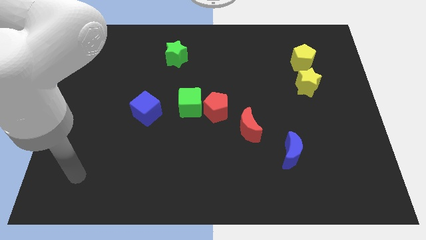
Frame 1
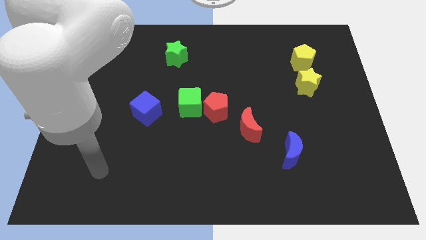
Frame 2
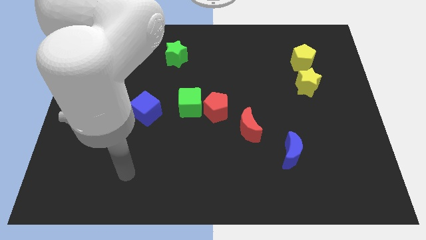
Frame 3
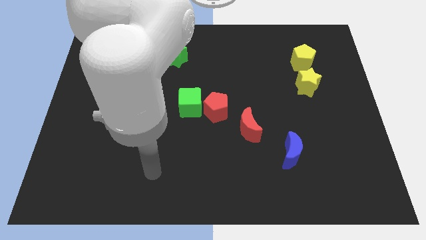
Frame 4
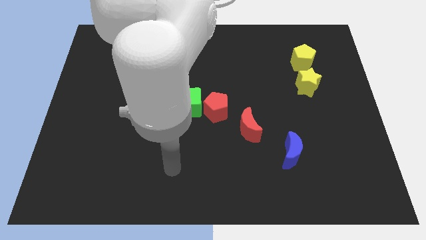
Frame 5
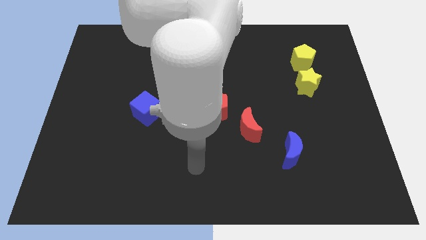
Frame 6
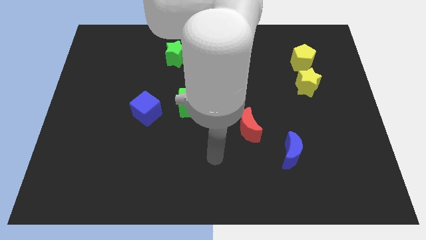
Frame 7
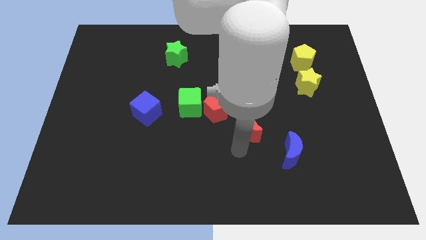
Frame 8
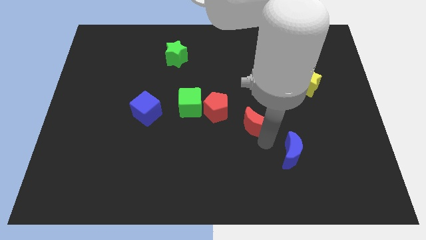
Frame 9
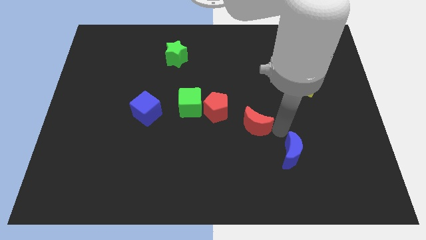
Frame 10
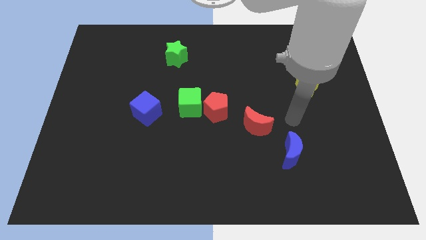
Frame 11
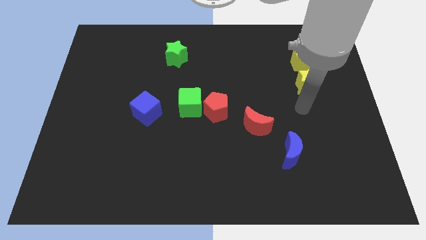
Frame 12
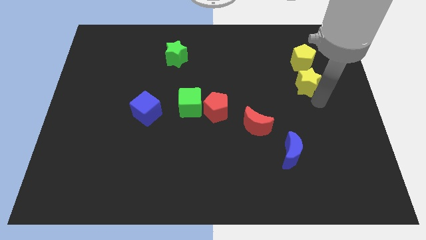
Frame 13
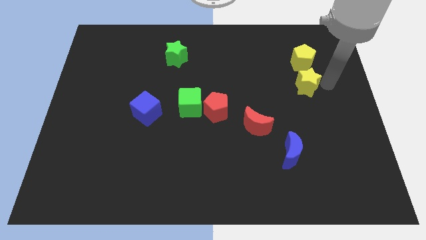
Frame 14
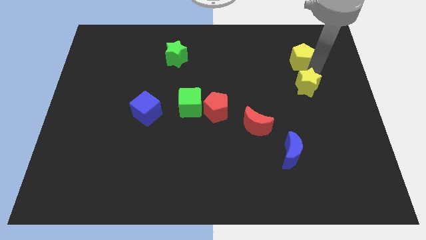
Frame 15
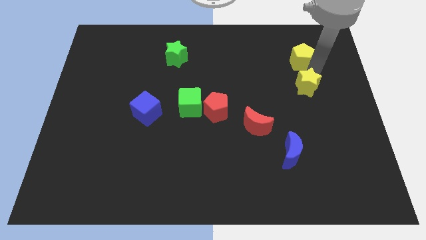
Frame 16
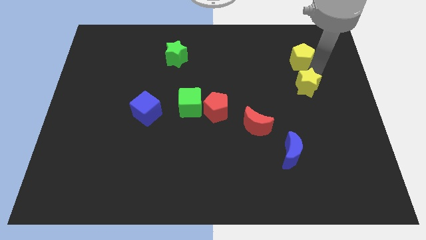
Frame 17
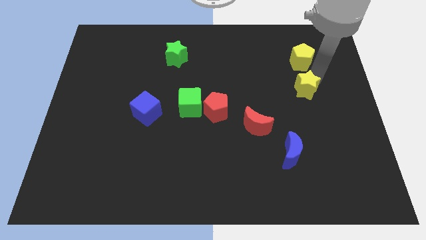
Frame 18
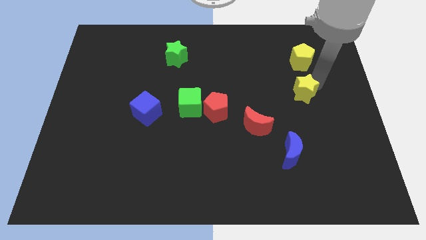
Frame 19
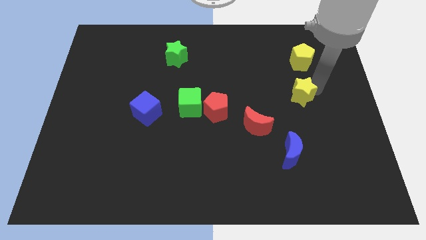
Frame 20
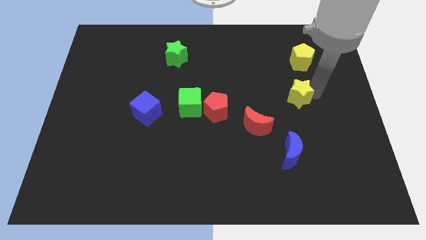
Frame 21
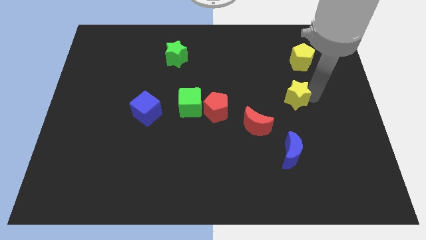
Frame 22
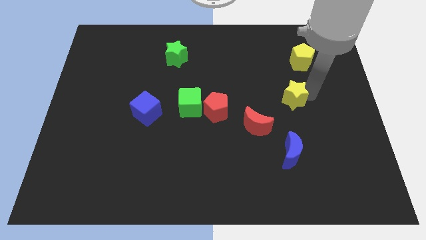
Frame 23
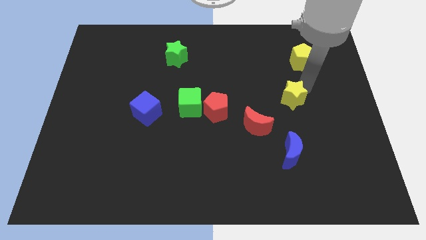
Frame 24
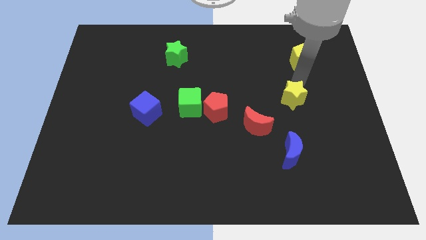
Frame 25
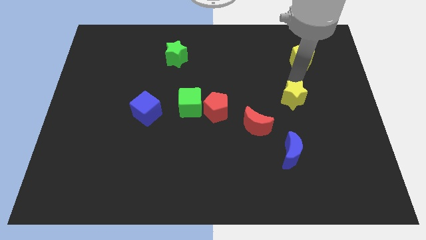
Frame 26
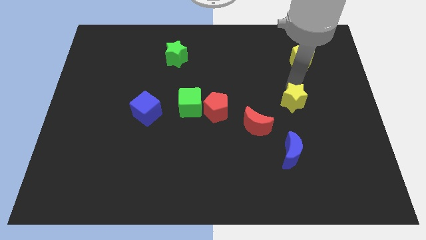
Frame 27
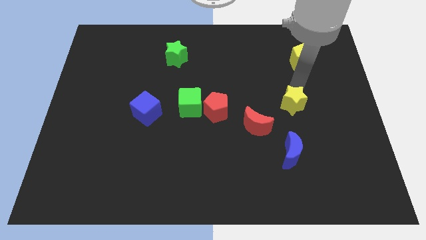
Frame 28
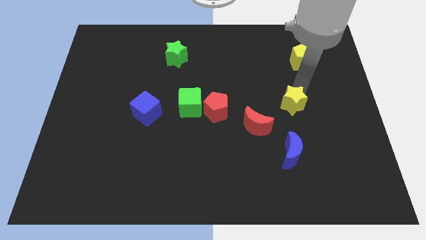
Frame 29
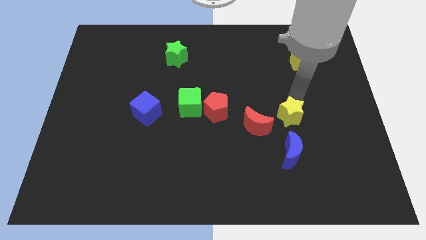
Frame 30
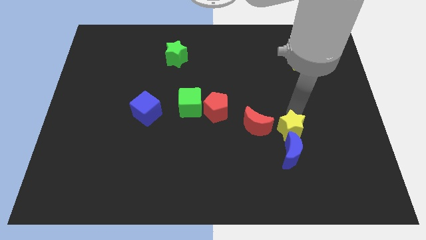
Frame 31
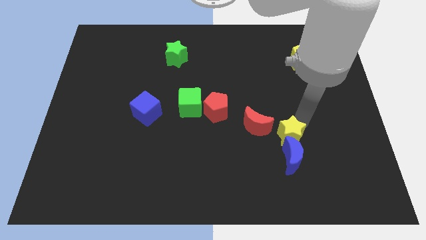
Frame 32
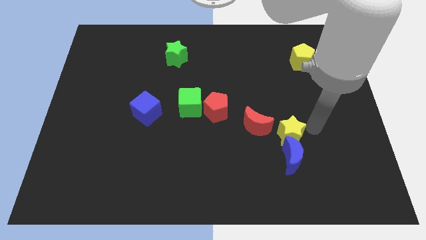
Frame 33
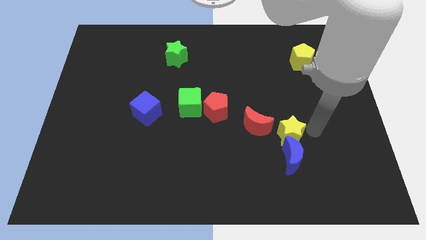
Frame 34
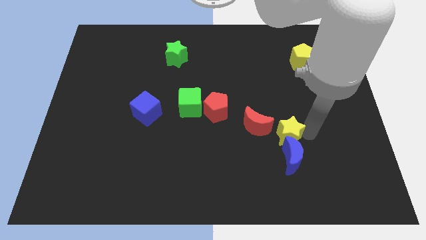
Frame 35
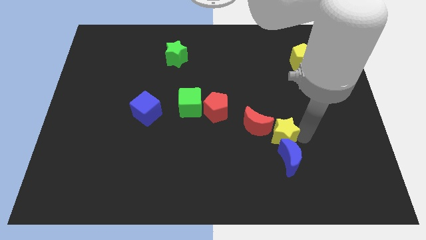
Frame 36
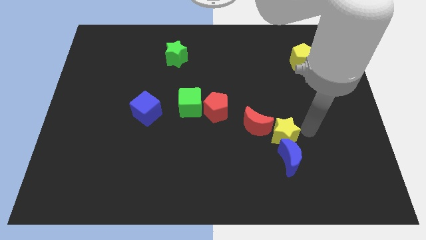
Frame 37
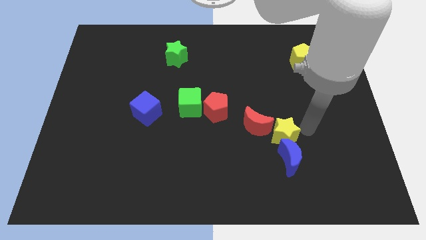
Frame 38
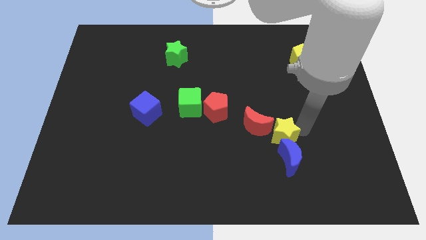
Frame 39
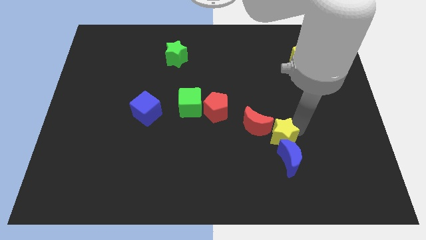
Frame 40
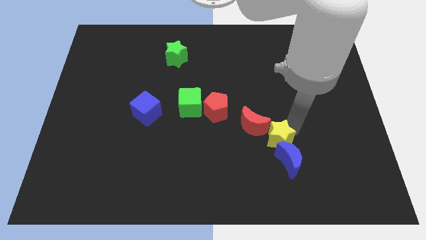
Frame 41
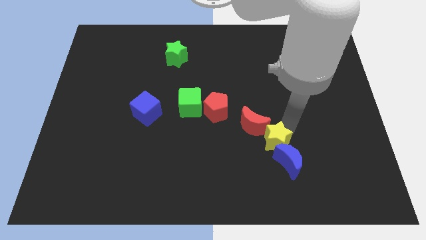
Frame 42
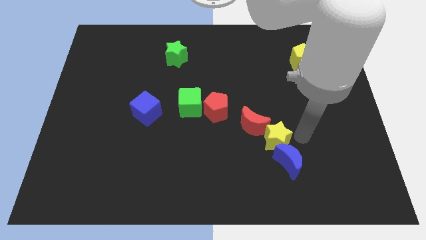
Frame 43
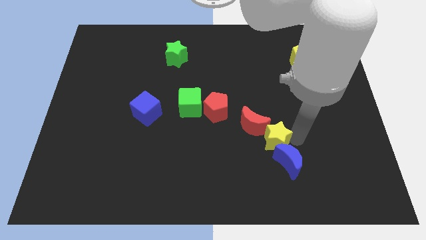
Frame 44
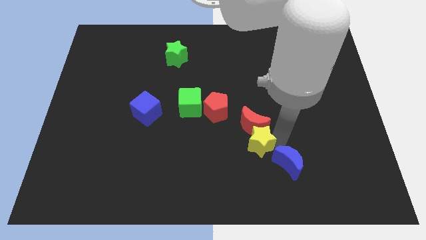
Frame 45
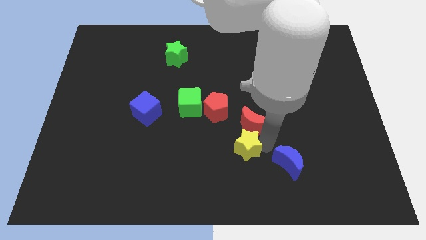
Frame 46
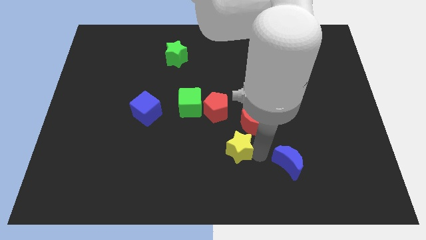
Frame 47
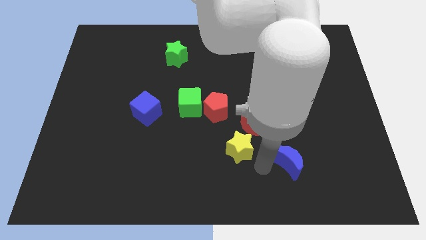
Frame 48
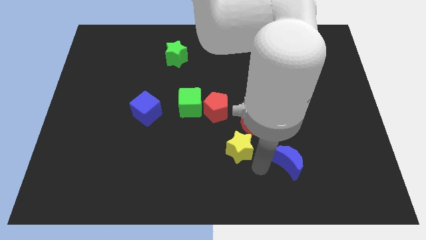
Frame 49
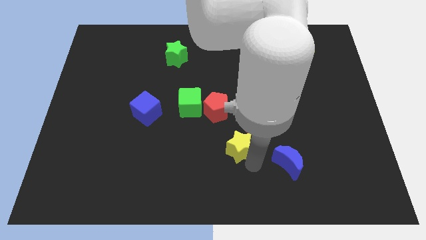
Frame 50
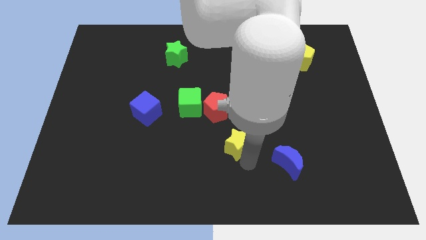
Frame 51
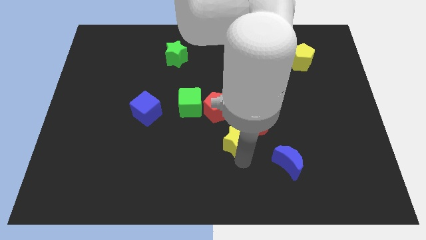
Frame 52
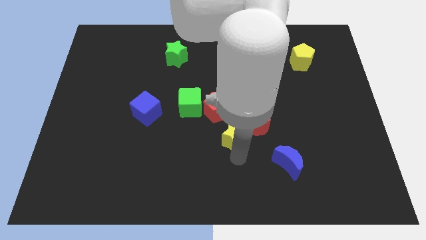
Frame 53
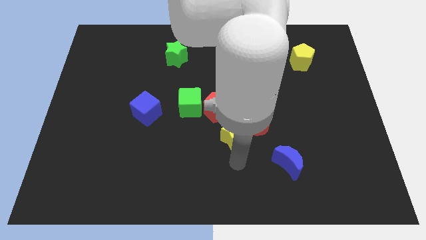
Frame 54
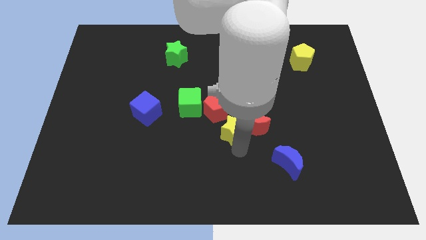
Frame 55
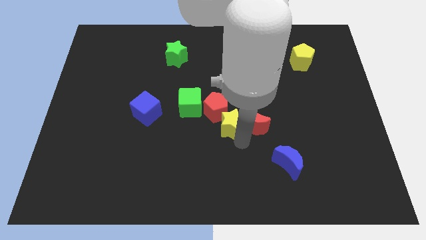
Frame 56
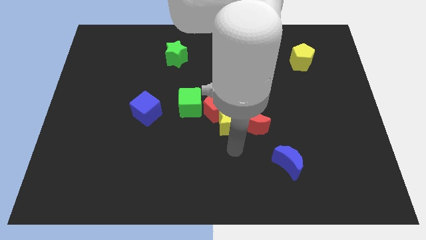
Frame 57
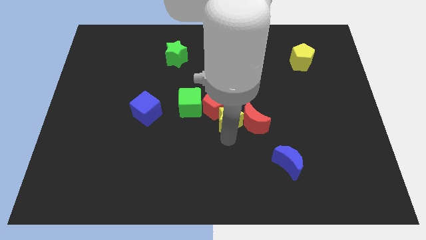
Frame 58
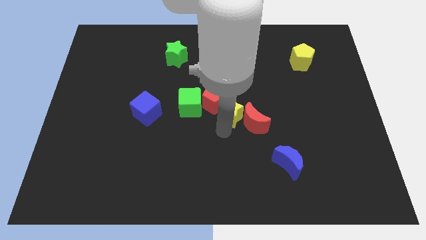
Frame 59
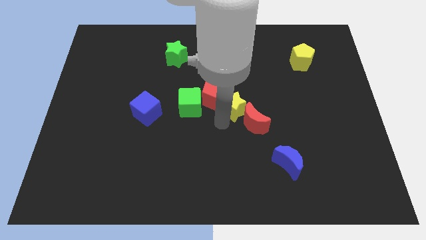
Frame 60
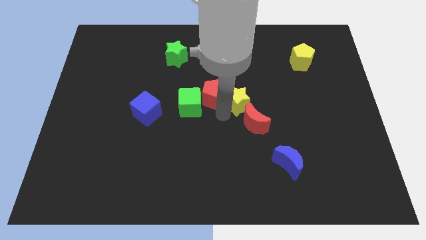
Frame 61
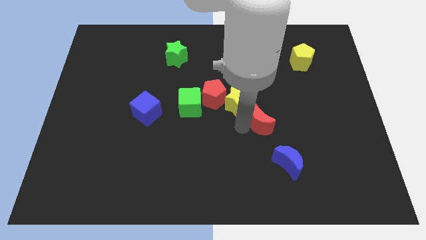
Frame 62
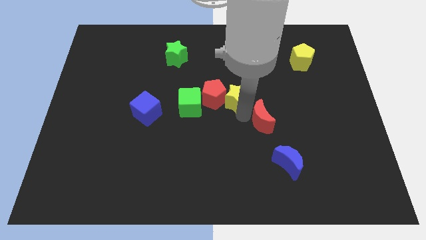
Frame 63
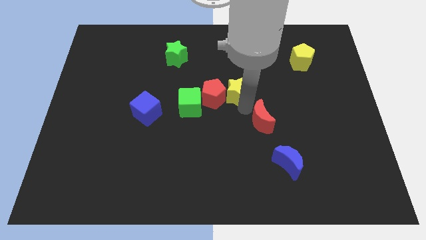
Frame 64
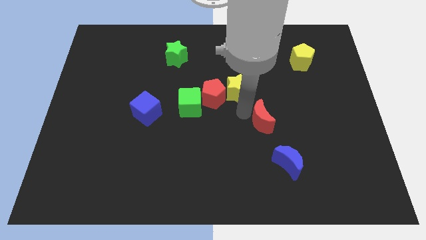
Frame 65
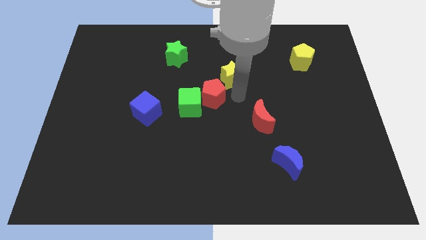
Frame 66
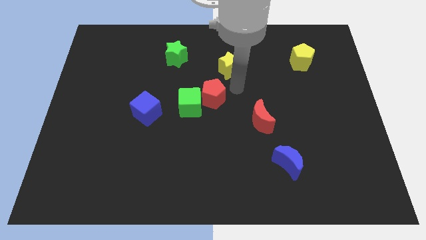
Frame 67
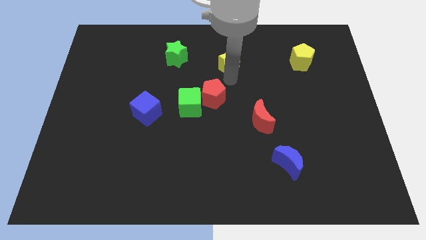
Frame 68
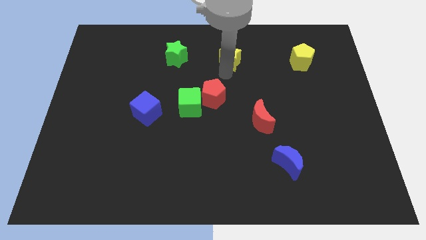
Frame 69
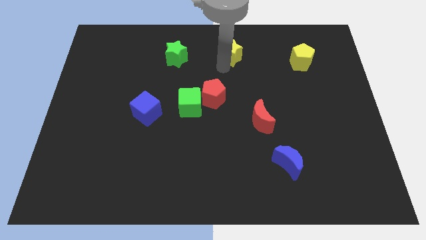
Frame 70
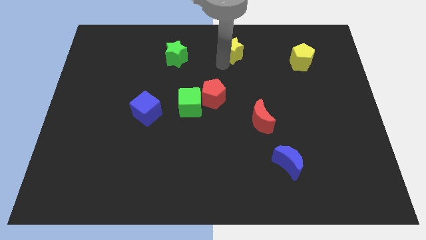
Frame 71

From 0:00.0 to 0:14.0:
push the yellow star to the towards your base

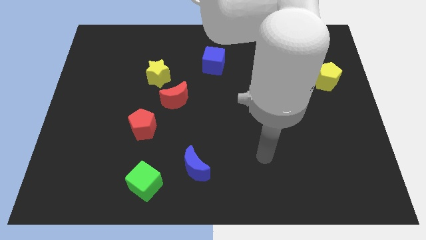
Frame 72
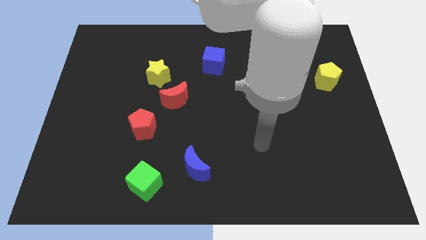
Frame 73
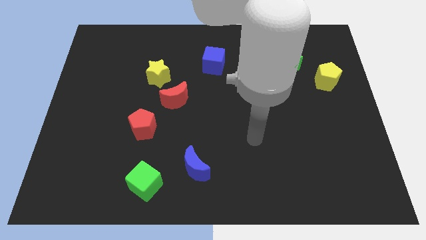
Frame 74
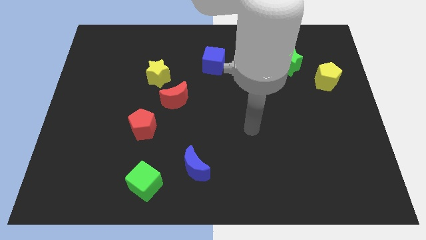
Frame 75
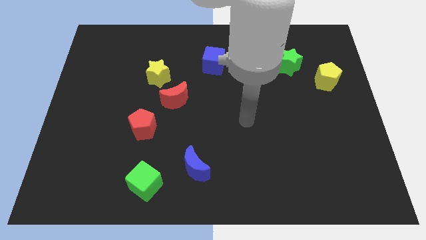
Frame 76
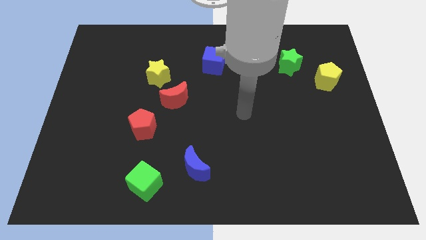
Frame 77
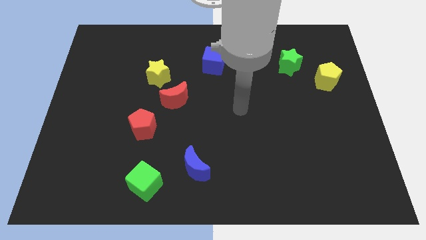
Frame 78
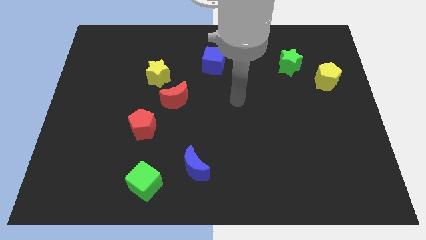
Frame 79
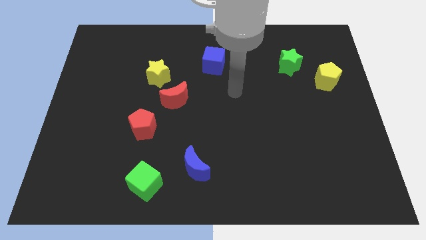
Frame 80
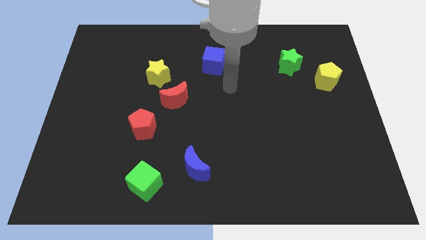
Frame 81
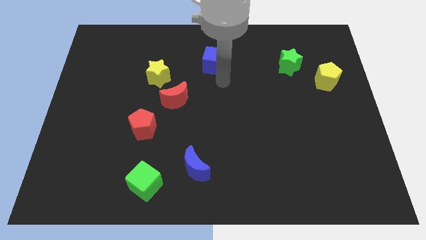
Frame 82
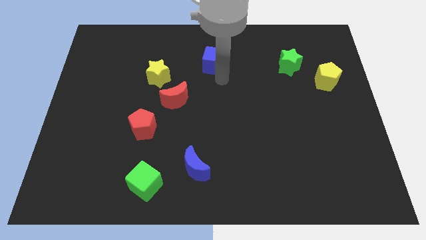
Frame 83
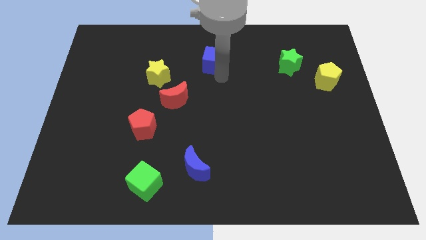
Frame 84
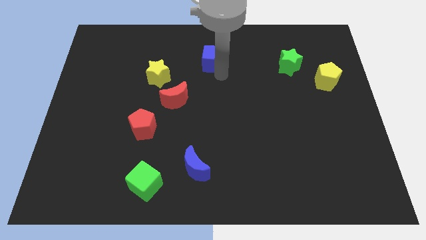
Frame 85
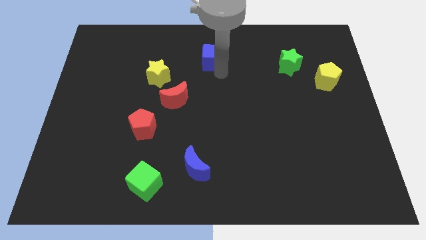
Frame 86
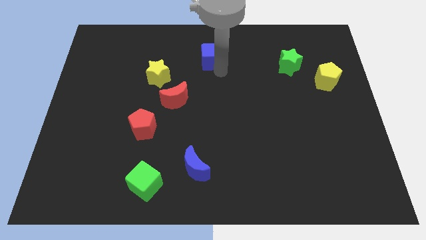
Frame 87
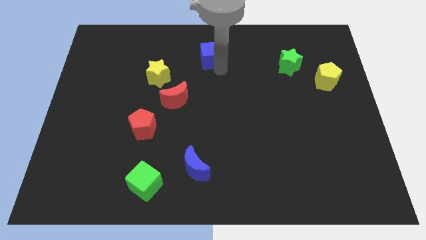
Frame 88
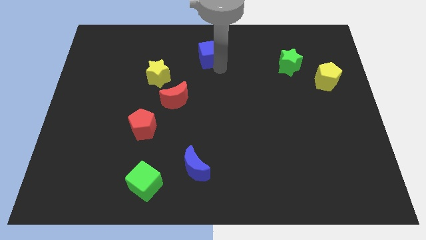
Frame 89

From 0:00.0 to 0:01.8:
put the blue cube to the top side
